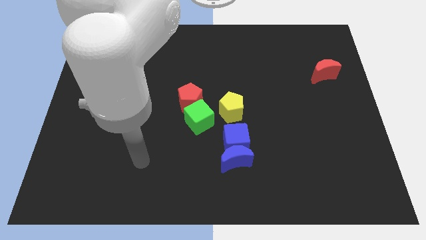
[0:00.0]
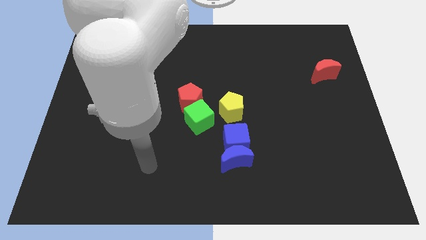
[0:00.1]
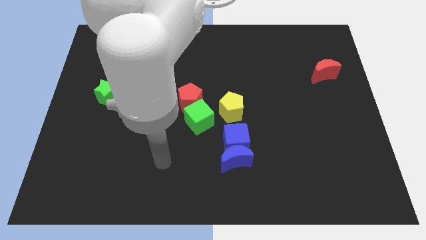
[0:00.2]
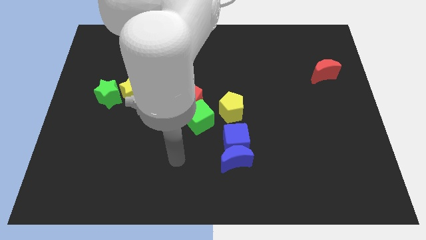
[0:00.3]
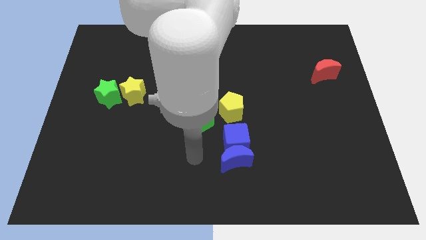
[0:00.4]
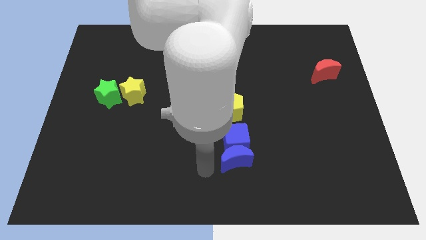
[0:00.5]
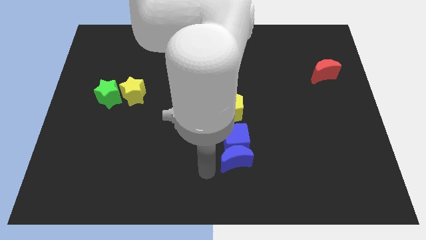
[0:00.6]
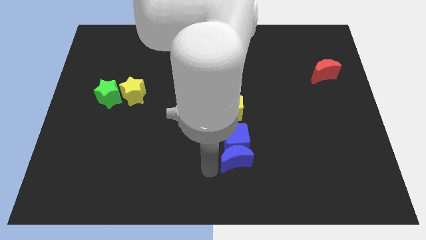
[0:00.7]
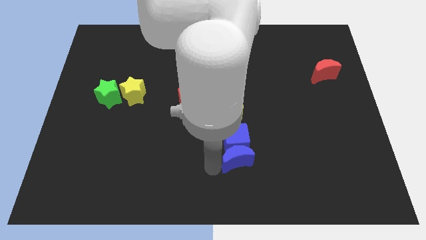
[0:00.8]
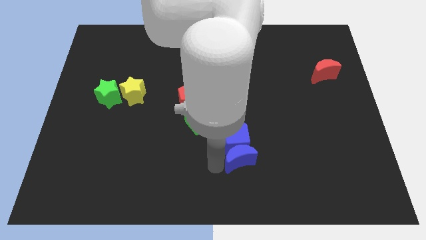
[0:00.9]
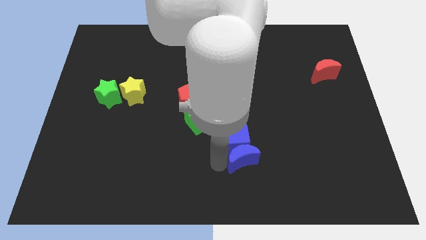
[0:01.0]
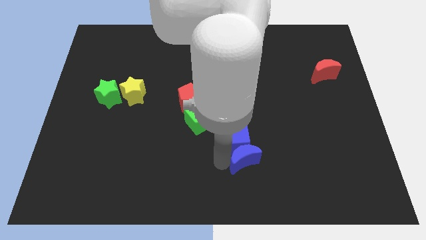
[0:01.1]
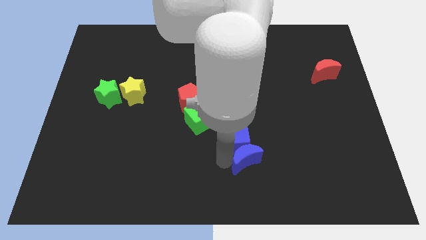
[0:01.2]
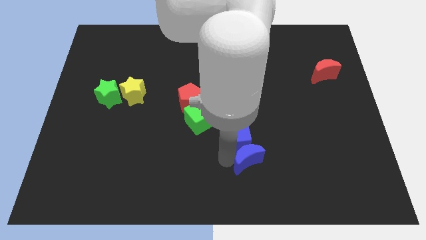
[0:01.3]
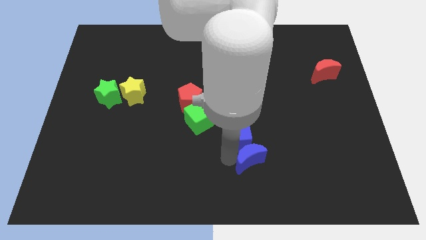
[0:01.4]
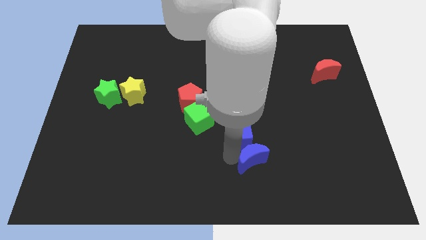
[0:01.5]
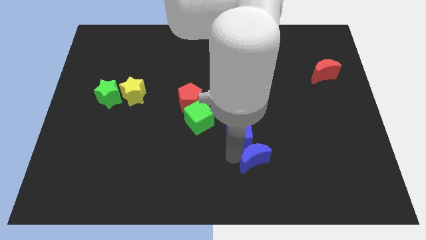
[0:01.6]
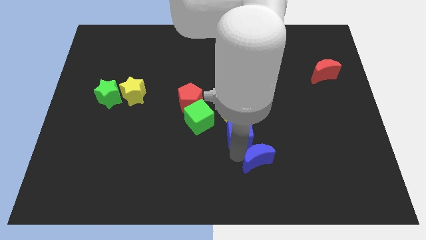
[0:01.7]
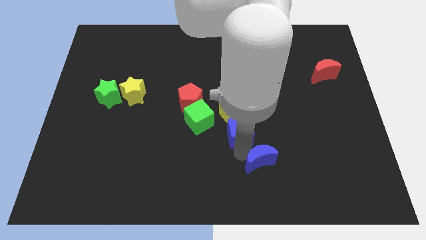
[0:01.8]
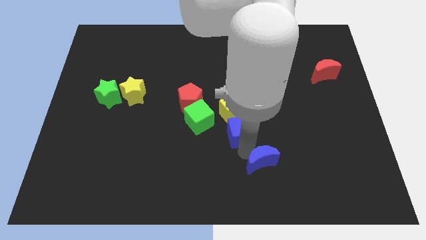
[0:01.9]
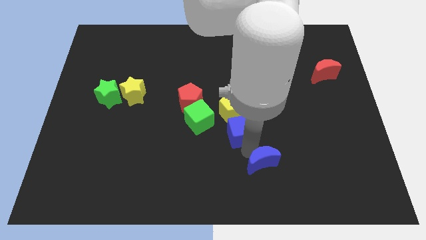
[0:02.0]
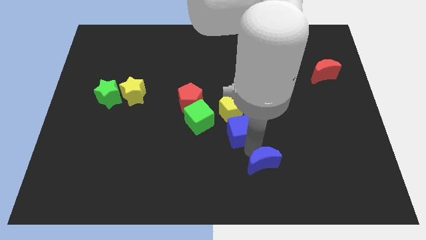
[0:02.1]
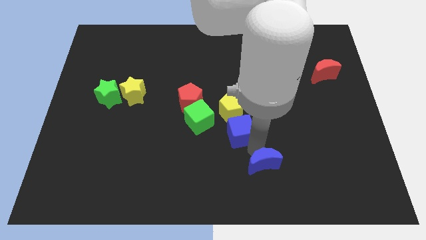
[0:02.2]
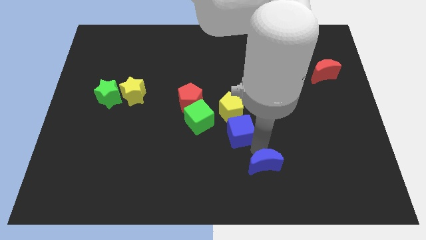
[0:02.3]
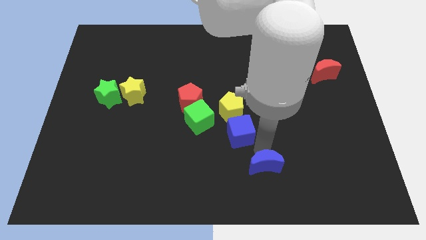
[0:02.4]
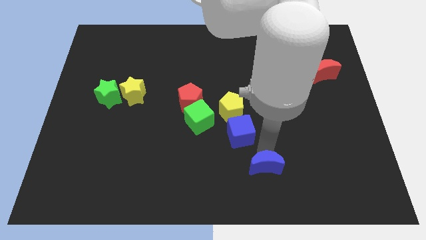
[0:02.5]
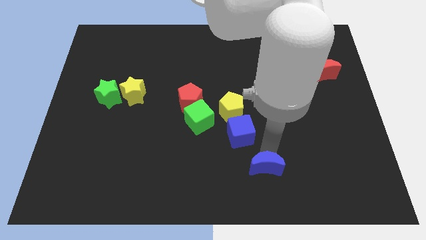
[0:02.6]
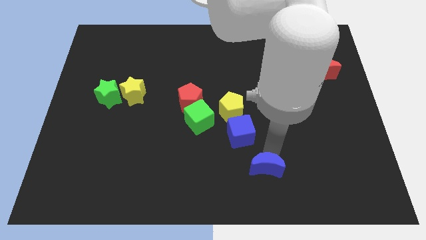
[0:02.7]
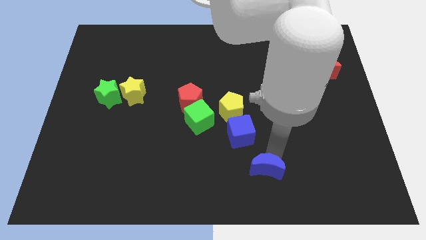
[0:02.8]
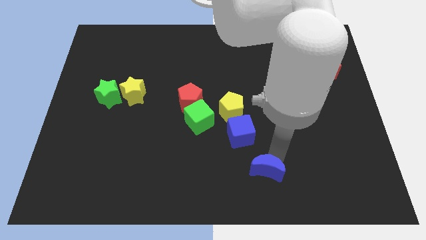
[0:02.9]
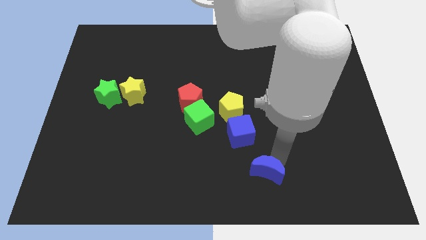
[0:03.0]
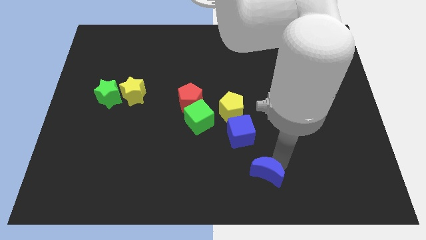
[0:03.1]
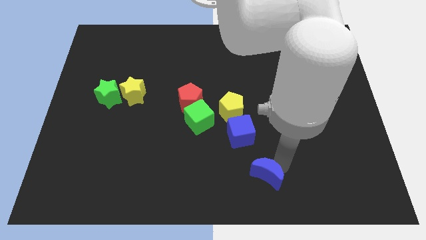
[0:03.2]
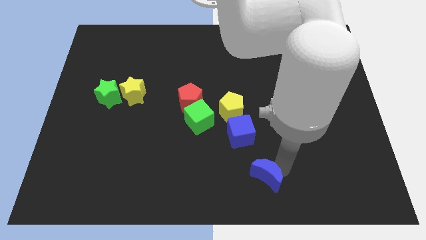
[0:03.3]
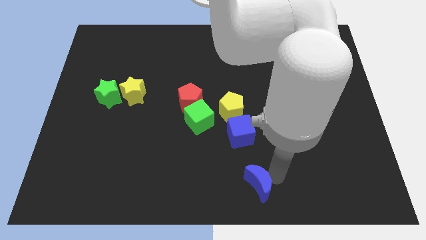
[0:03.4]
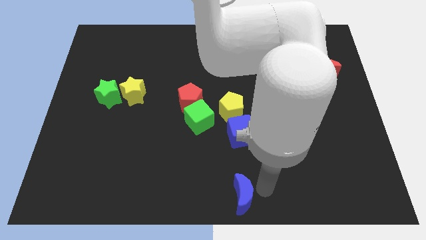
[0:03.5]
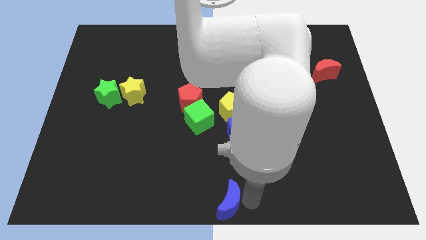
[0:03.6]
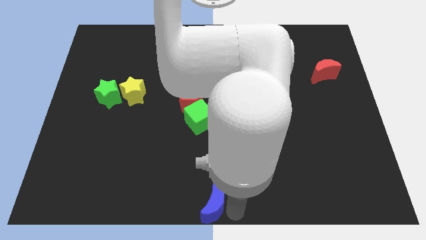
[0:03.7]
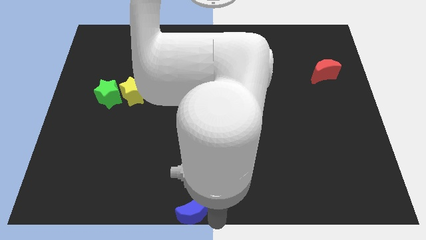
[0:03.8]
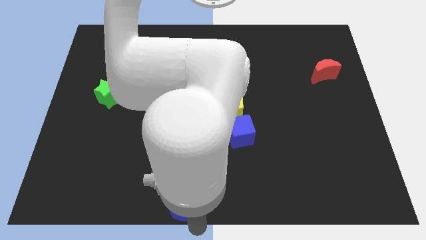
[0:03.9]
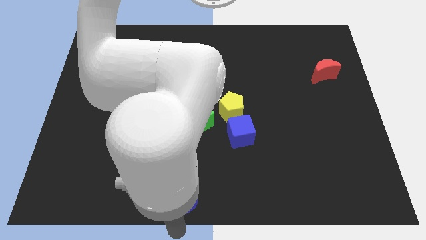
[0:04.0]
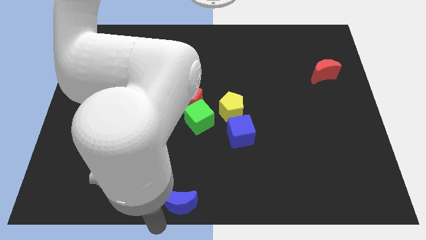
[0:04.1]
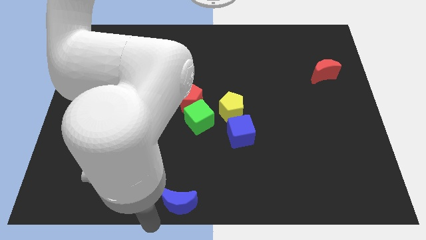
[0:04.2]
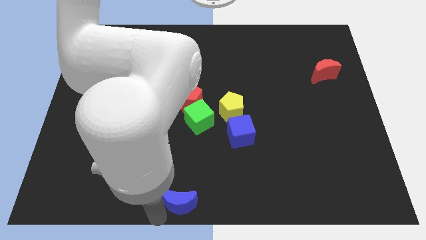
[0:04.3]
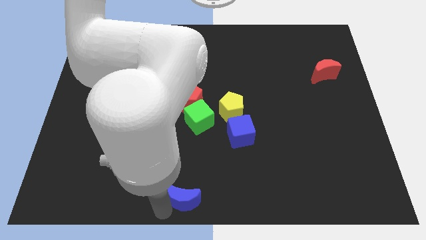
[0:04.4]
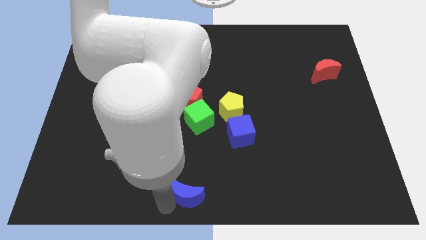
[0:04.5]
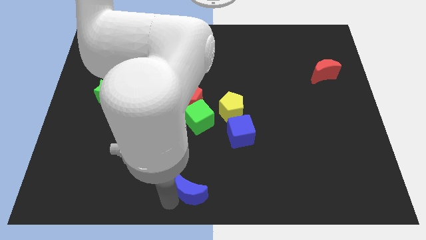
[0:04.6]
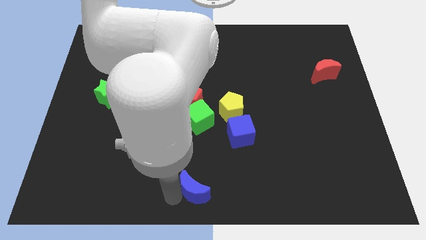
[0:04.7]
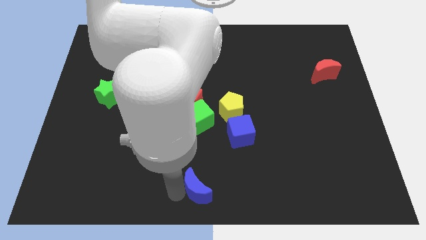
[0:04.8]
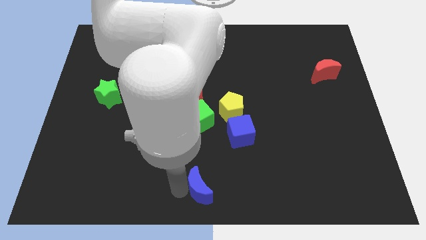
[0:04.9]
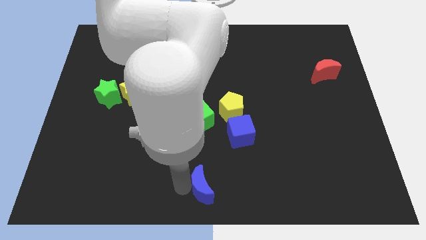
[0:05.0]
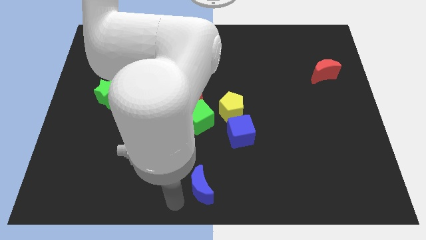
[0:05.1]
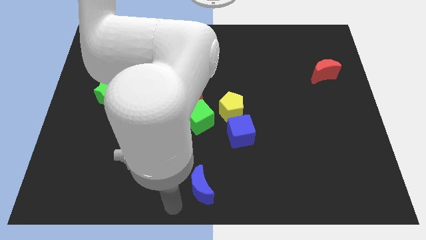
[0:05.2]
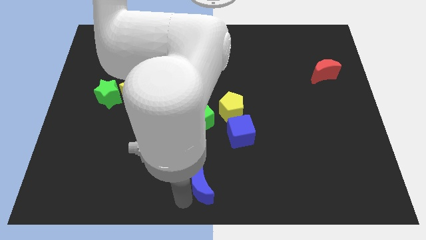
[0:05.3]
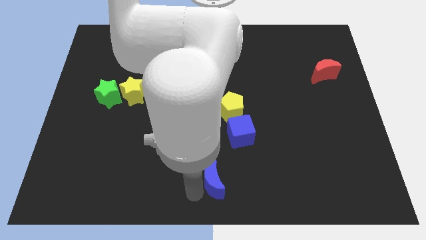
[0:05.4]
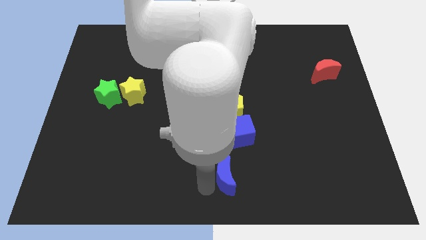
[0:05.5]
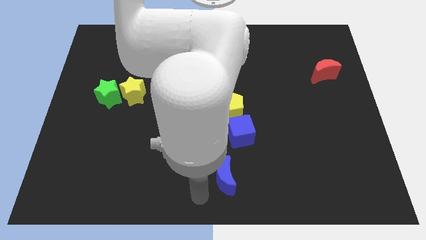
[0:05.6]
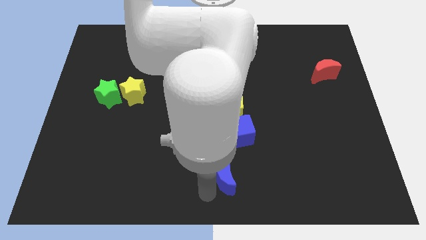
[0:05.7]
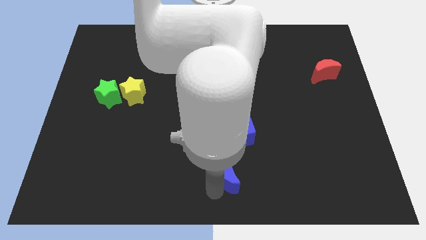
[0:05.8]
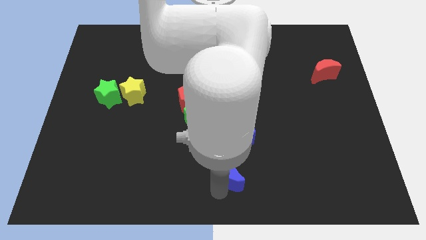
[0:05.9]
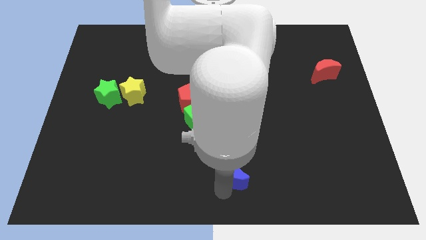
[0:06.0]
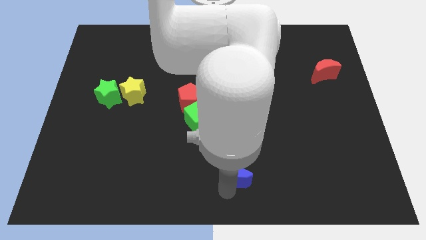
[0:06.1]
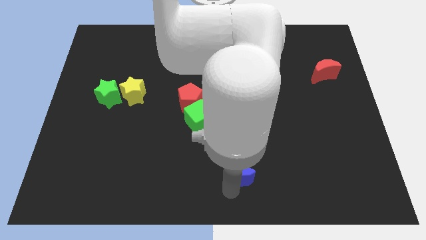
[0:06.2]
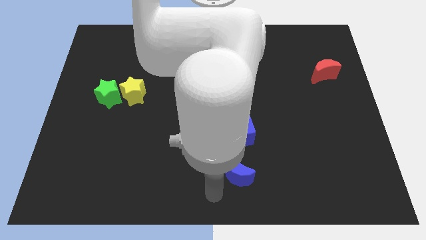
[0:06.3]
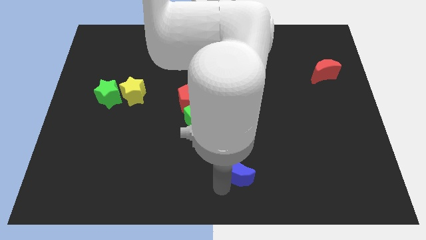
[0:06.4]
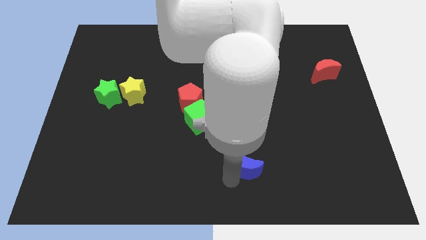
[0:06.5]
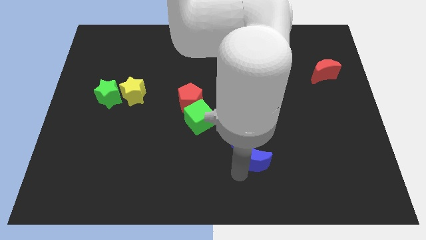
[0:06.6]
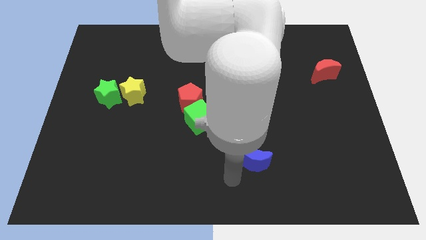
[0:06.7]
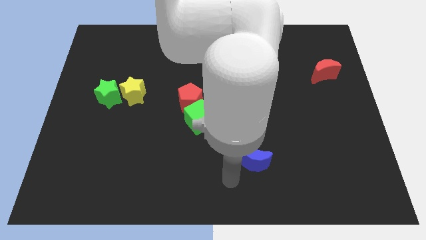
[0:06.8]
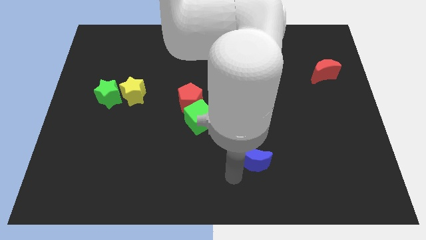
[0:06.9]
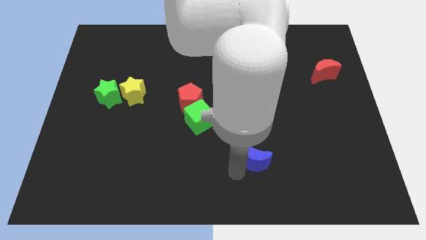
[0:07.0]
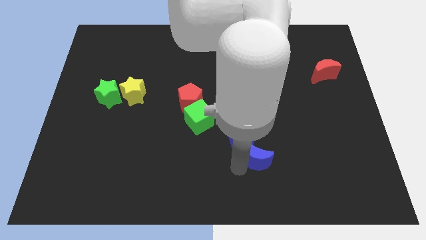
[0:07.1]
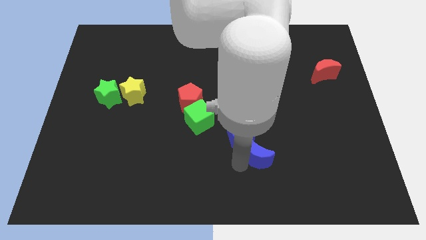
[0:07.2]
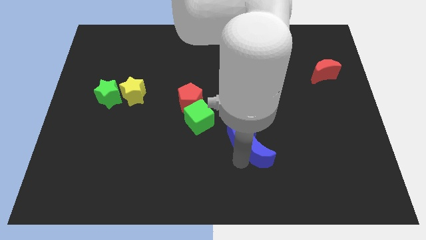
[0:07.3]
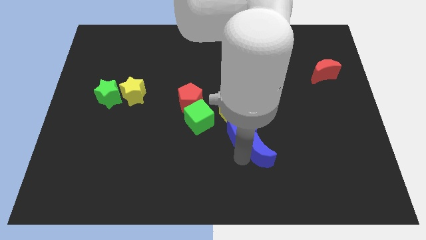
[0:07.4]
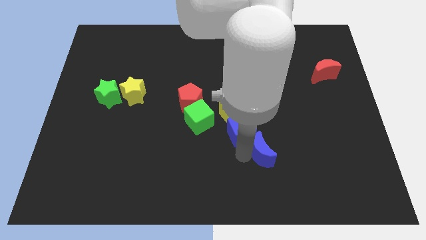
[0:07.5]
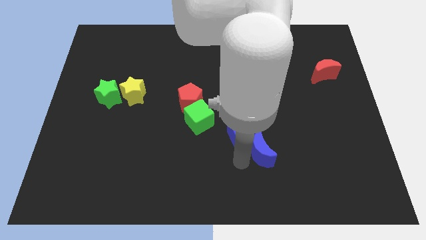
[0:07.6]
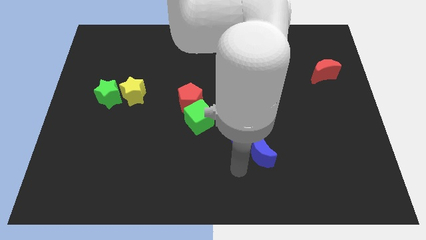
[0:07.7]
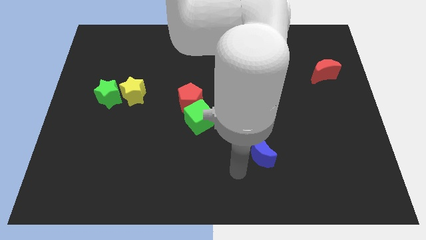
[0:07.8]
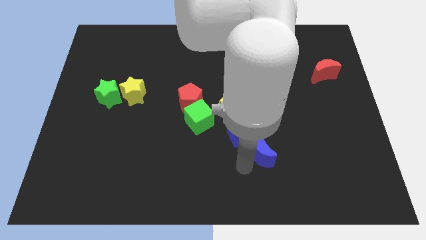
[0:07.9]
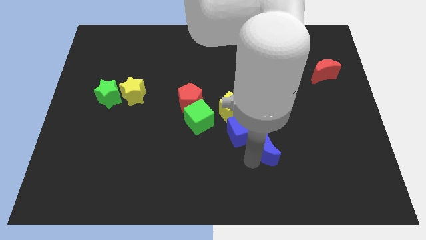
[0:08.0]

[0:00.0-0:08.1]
move the blue moon to the right of the blue cube
